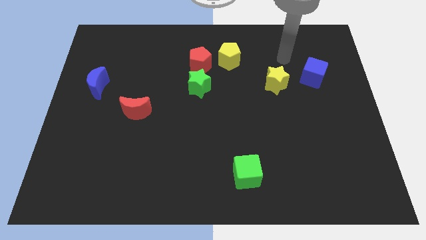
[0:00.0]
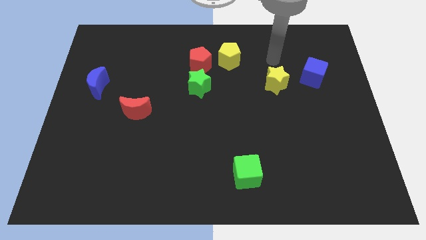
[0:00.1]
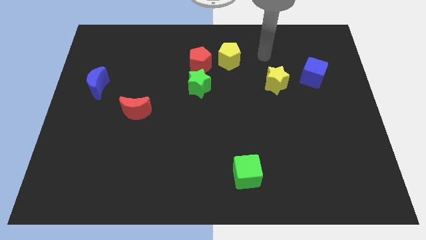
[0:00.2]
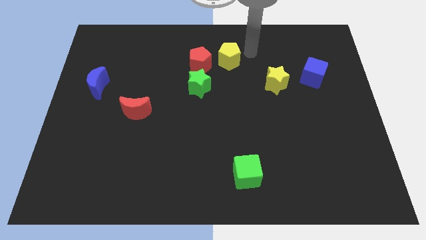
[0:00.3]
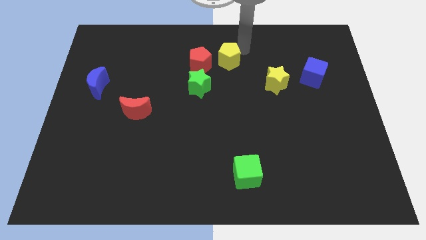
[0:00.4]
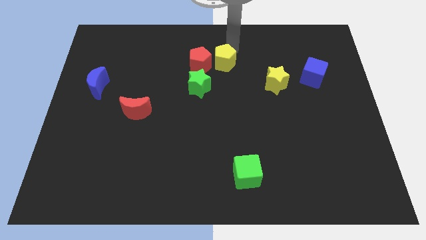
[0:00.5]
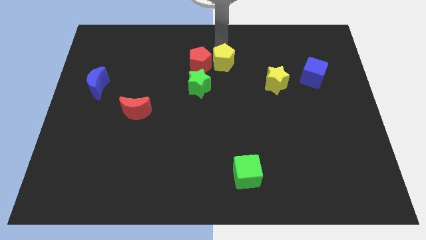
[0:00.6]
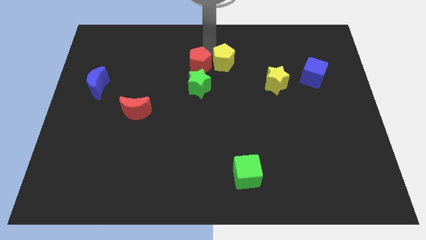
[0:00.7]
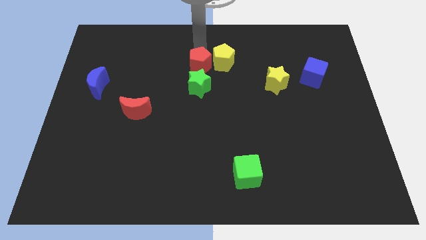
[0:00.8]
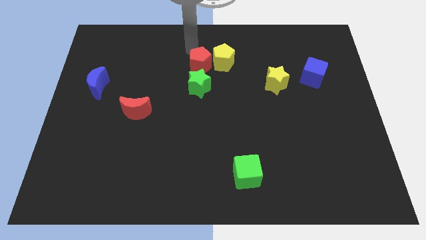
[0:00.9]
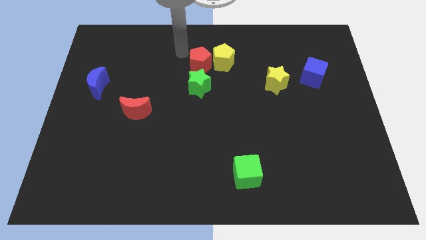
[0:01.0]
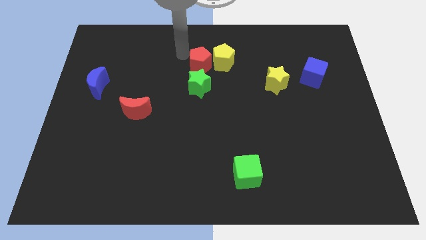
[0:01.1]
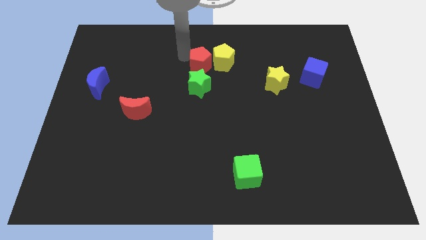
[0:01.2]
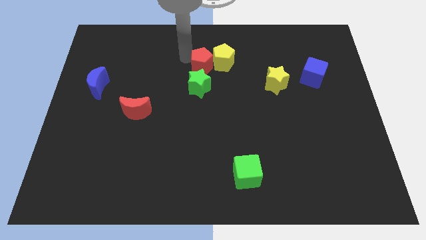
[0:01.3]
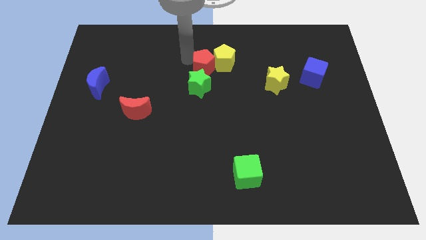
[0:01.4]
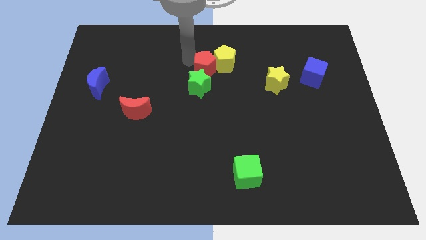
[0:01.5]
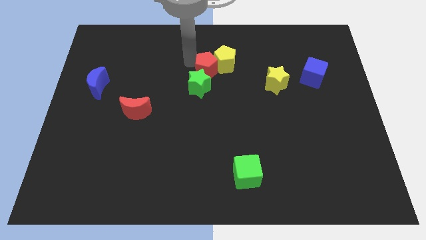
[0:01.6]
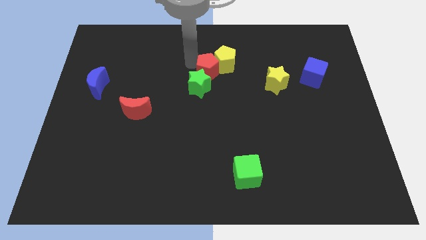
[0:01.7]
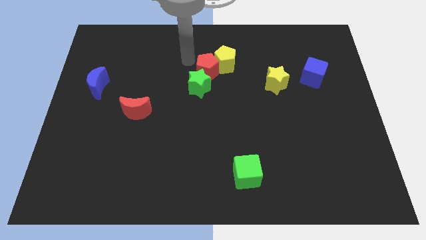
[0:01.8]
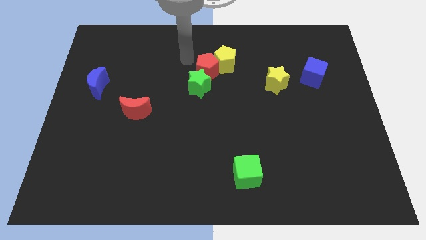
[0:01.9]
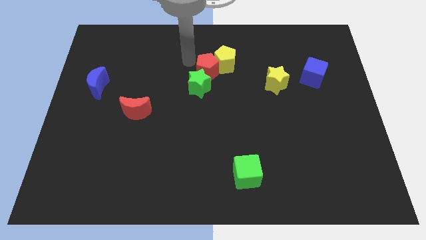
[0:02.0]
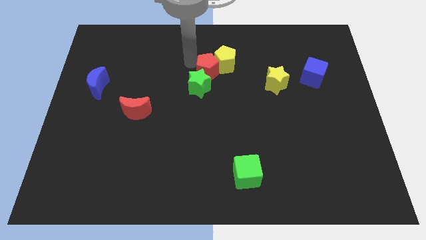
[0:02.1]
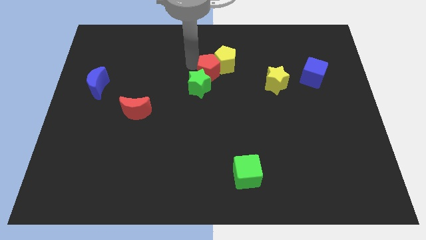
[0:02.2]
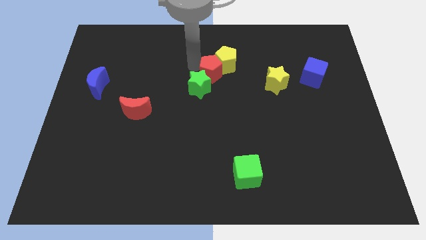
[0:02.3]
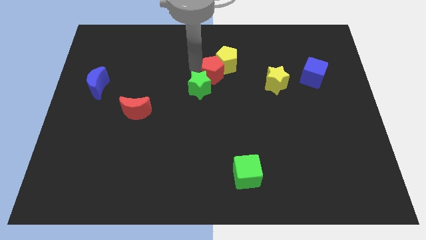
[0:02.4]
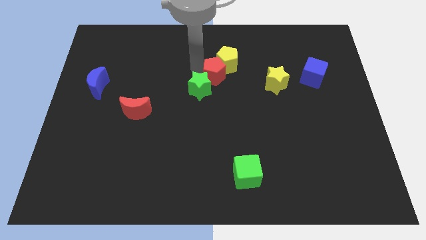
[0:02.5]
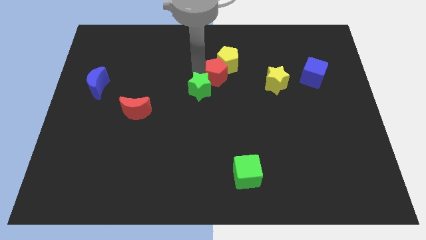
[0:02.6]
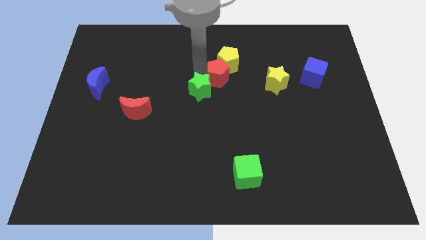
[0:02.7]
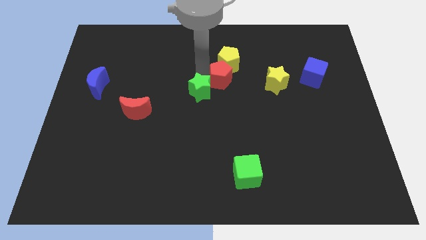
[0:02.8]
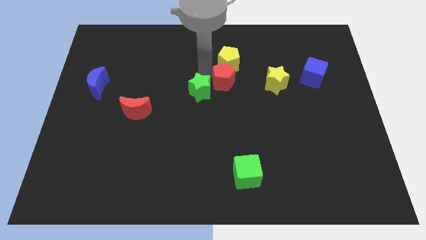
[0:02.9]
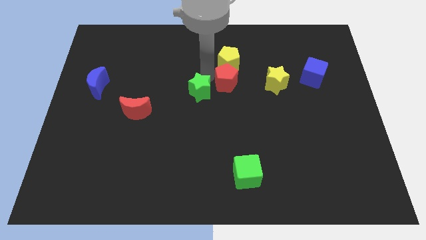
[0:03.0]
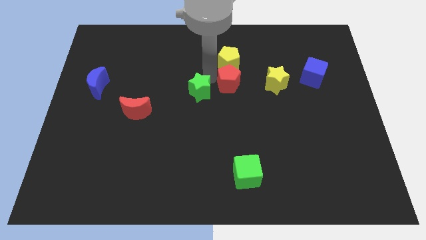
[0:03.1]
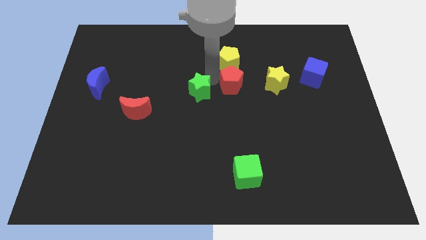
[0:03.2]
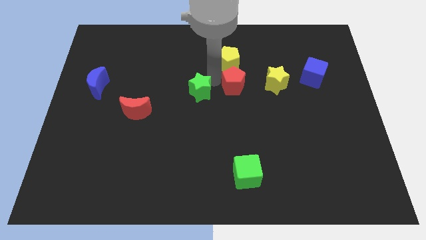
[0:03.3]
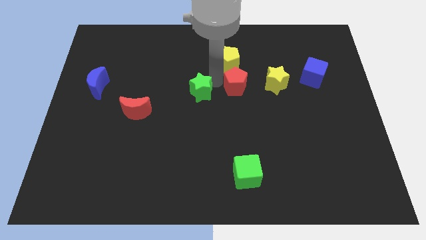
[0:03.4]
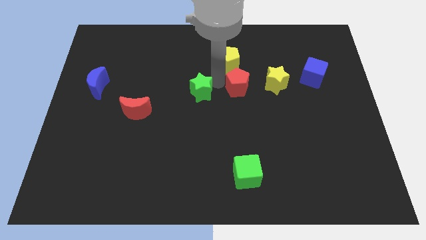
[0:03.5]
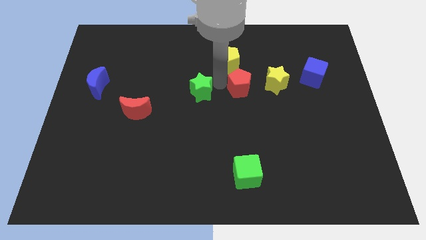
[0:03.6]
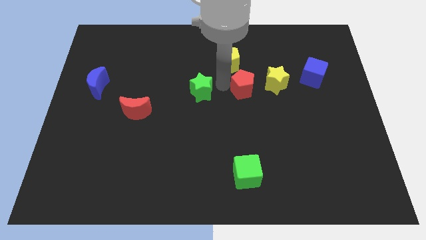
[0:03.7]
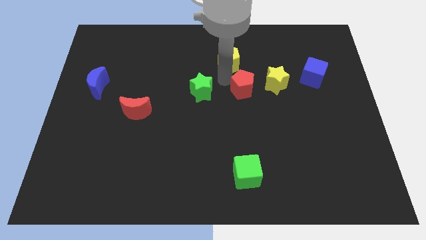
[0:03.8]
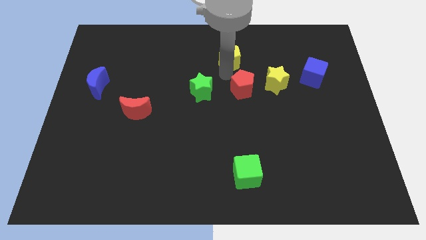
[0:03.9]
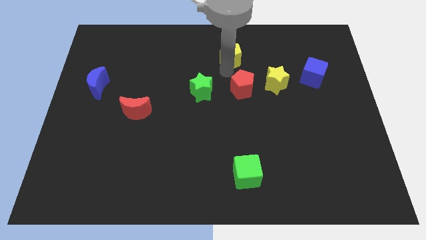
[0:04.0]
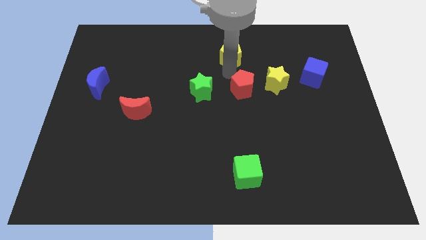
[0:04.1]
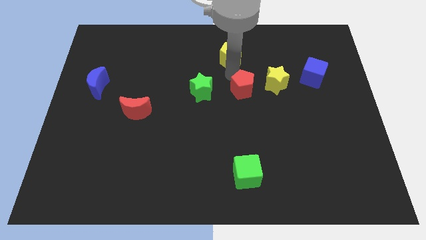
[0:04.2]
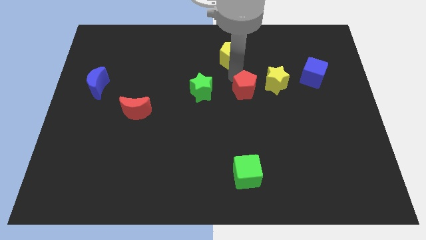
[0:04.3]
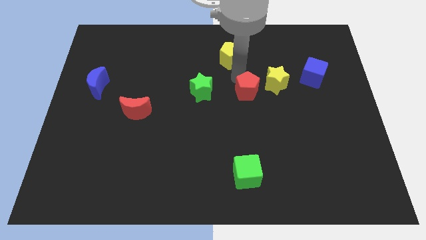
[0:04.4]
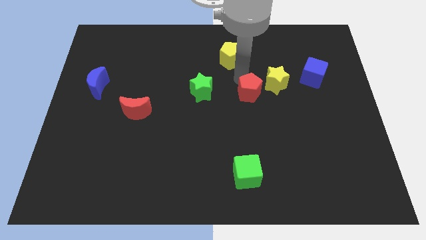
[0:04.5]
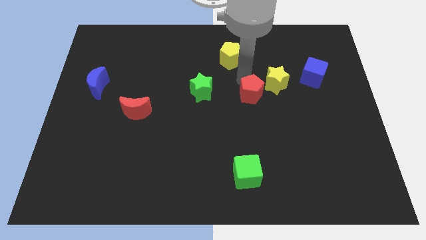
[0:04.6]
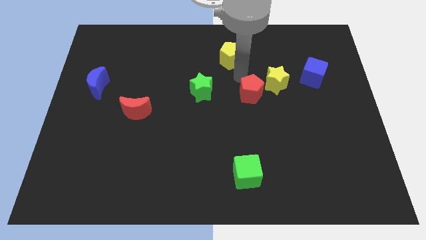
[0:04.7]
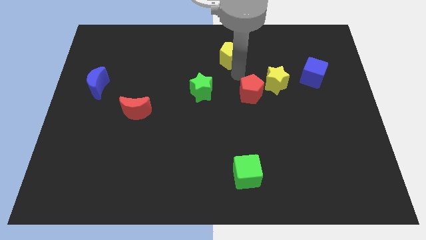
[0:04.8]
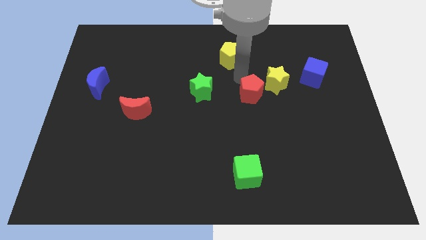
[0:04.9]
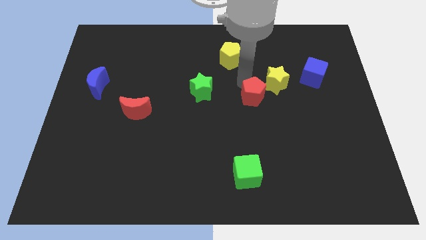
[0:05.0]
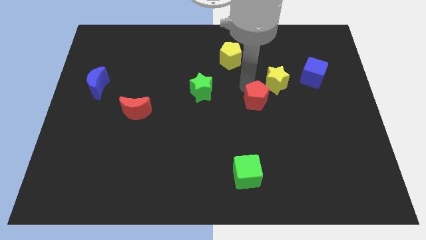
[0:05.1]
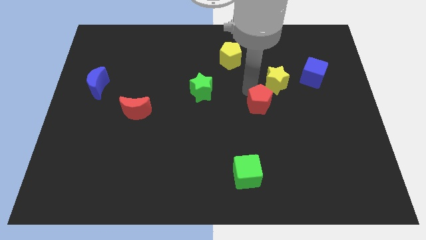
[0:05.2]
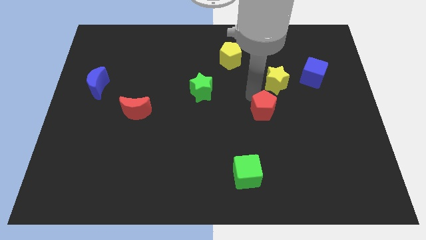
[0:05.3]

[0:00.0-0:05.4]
push the red pentagon downwards and then to the right

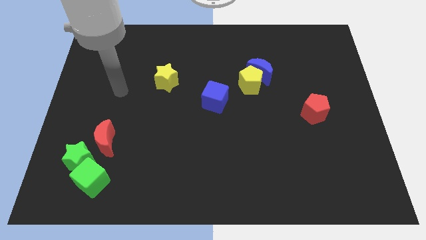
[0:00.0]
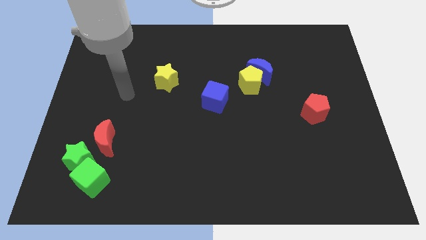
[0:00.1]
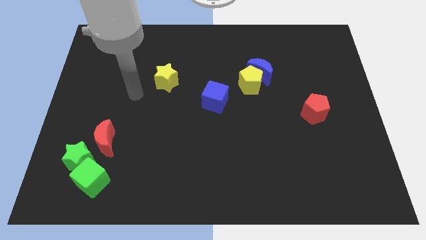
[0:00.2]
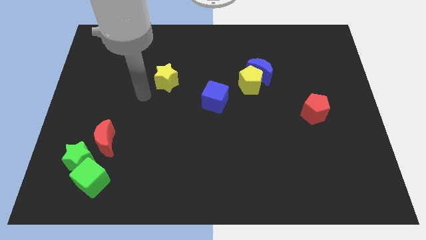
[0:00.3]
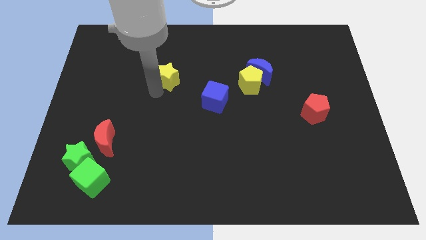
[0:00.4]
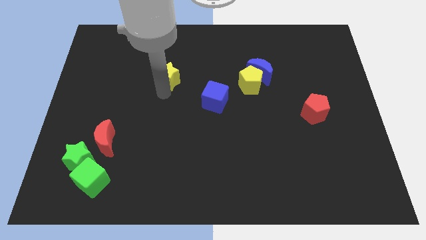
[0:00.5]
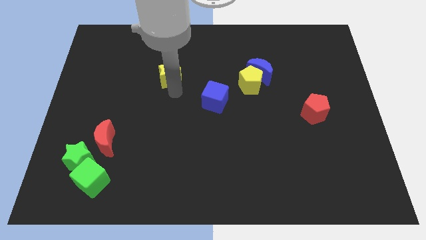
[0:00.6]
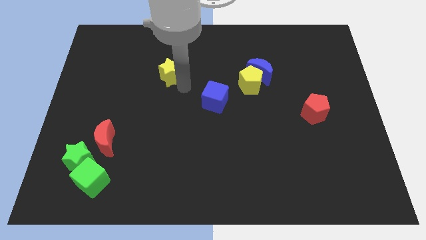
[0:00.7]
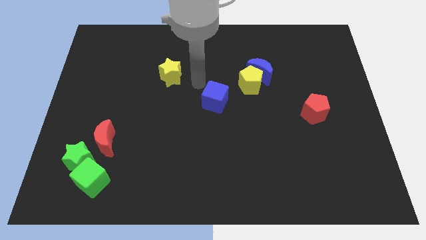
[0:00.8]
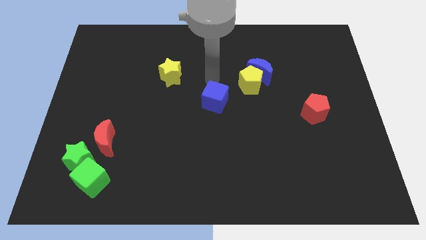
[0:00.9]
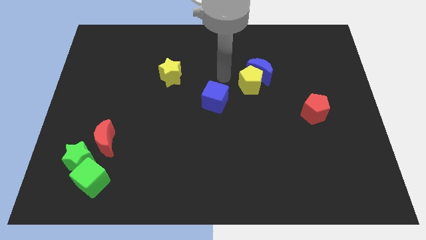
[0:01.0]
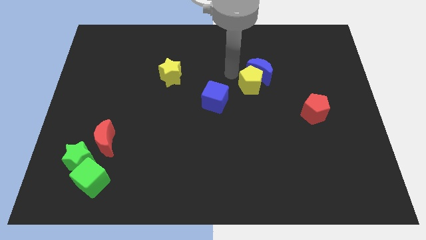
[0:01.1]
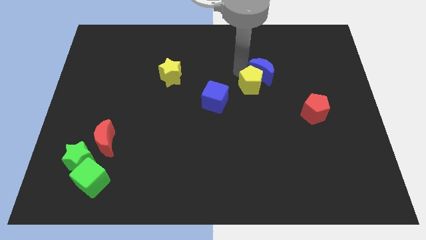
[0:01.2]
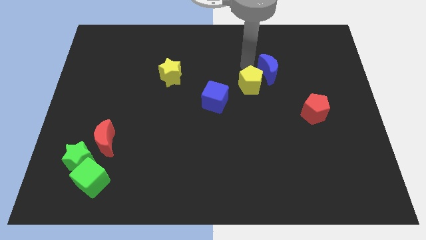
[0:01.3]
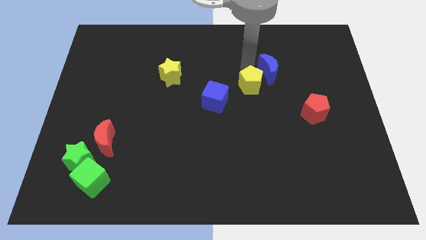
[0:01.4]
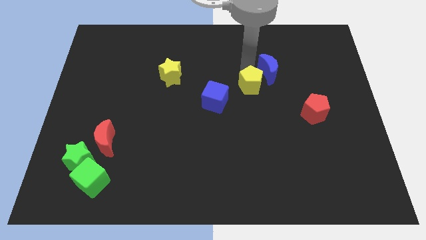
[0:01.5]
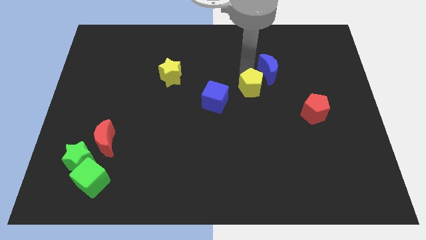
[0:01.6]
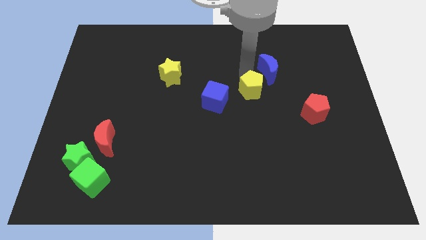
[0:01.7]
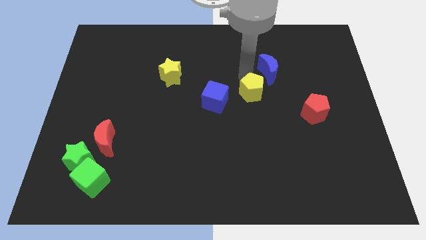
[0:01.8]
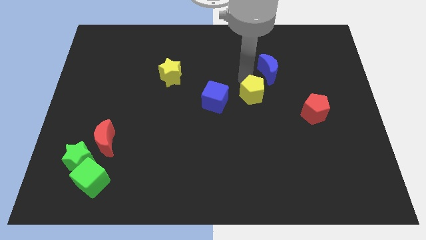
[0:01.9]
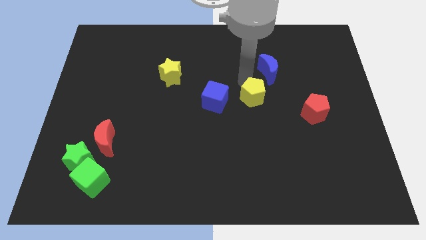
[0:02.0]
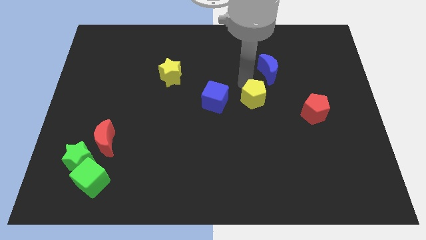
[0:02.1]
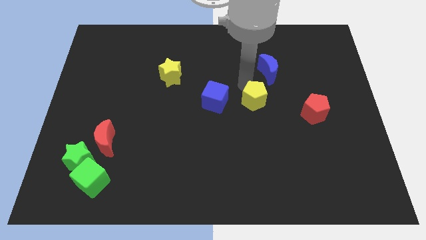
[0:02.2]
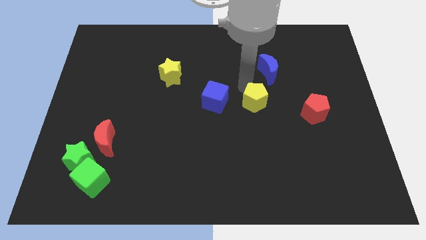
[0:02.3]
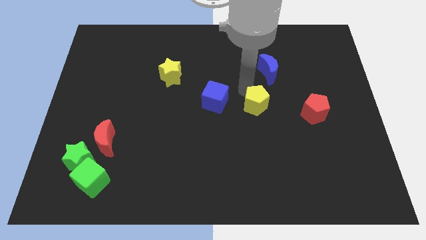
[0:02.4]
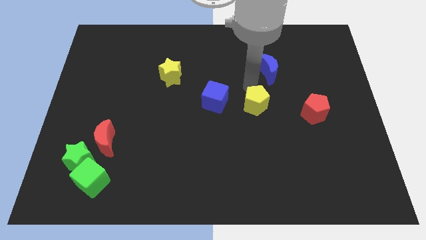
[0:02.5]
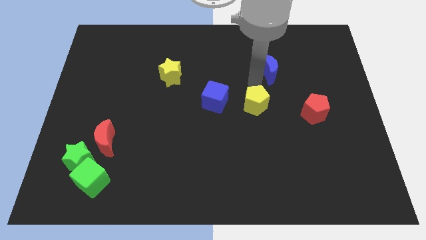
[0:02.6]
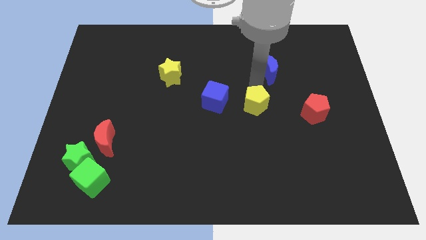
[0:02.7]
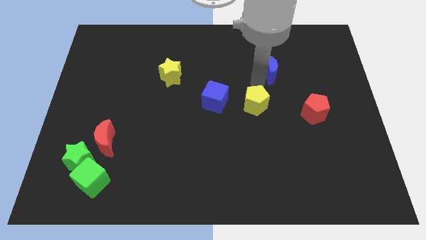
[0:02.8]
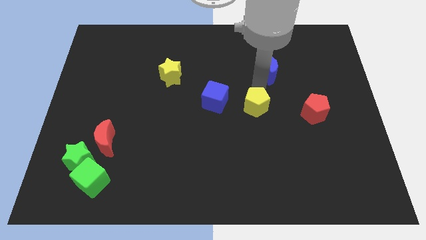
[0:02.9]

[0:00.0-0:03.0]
push the yellow pentagon slightly down
